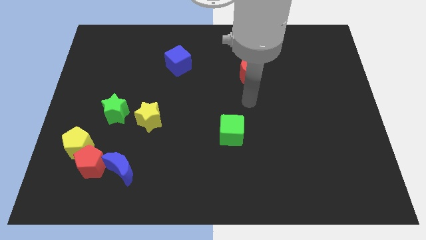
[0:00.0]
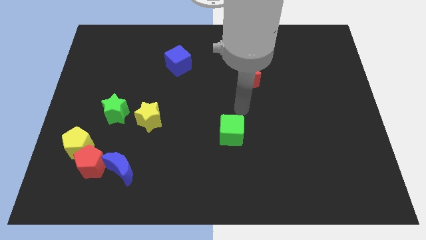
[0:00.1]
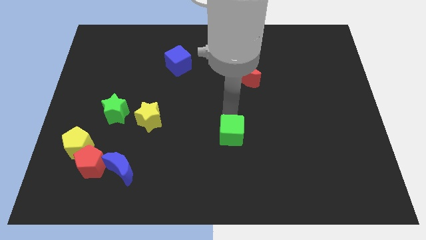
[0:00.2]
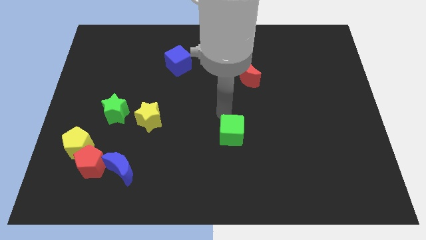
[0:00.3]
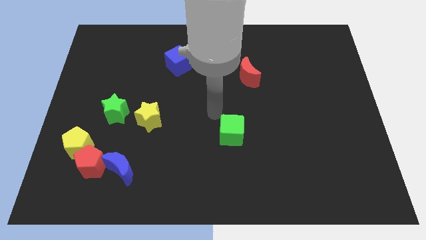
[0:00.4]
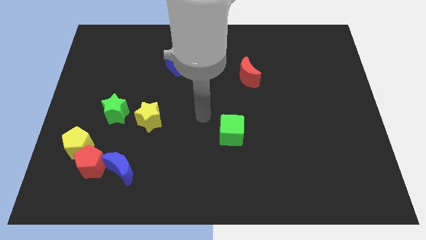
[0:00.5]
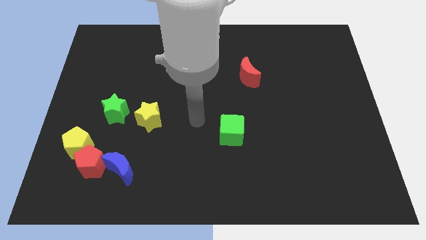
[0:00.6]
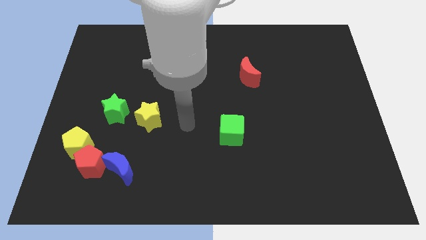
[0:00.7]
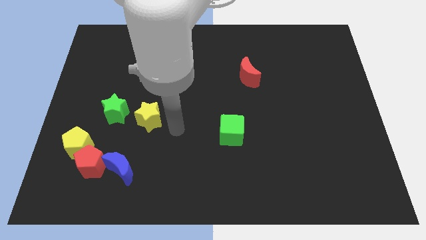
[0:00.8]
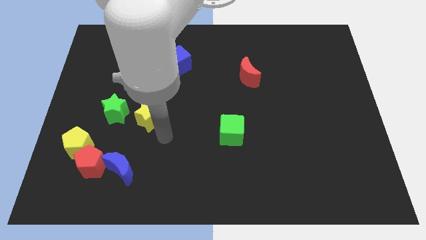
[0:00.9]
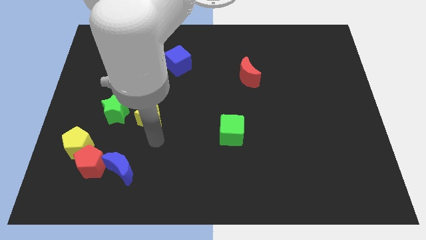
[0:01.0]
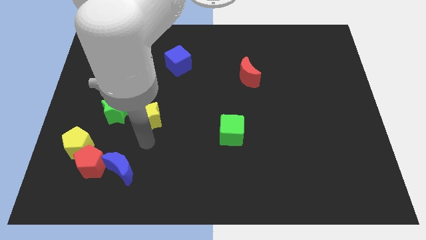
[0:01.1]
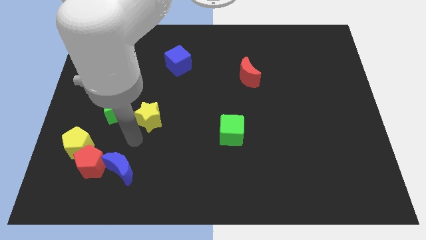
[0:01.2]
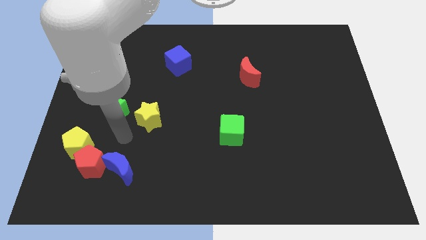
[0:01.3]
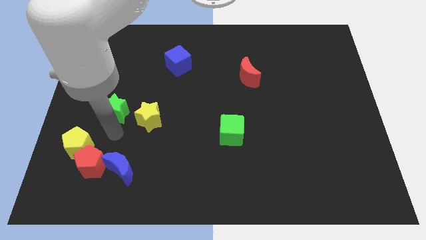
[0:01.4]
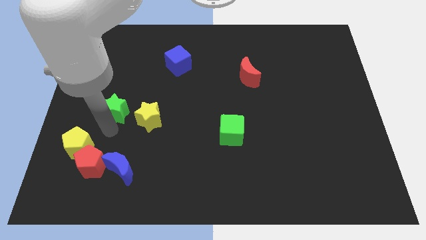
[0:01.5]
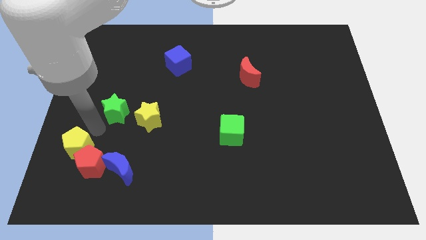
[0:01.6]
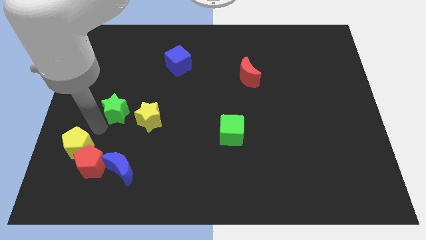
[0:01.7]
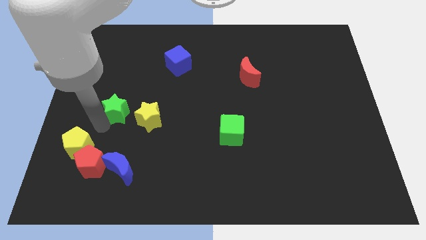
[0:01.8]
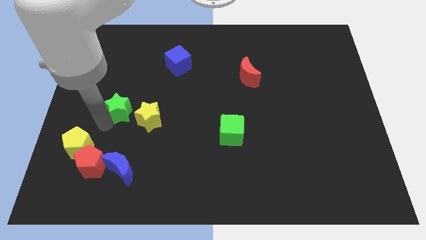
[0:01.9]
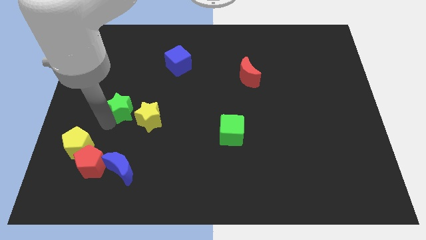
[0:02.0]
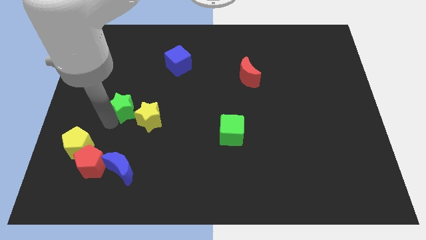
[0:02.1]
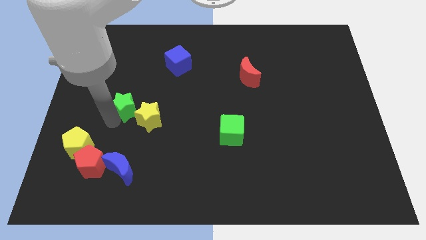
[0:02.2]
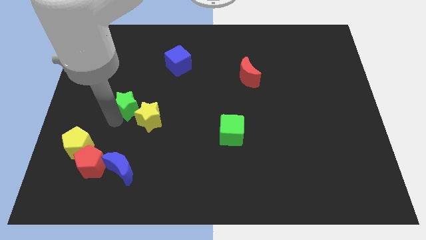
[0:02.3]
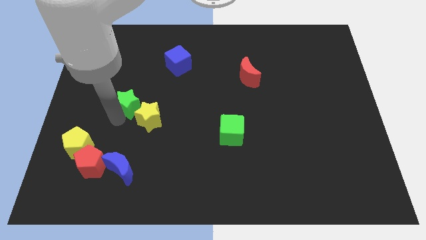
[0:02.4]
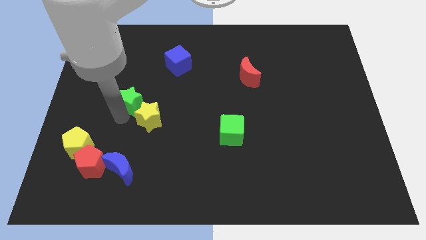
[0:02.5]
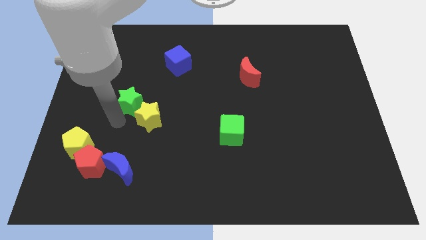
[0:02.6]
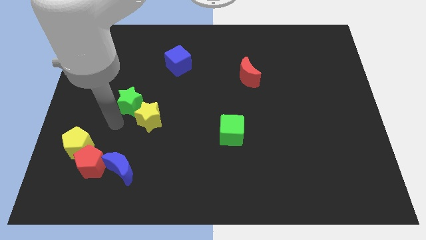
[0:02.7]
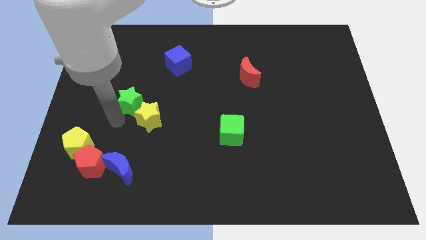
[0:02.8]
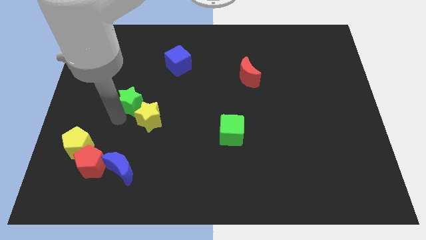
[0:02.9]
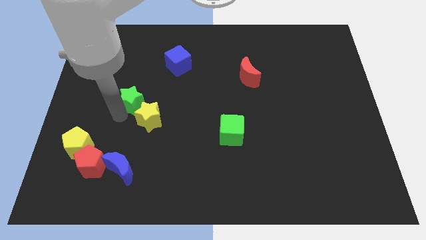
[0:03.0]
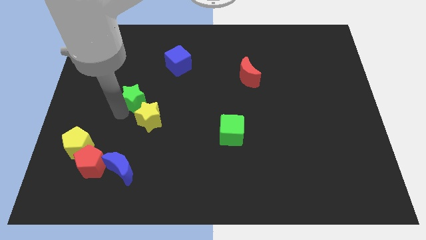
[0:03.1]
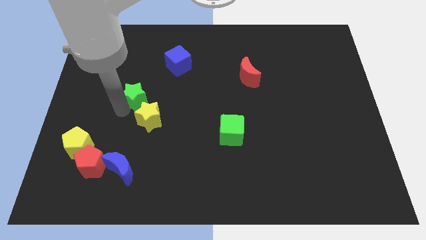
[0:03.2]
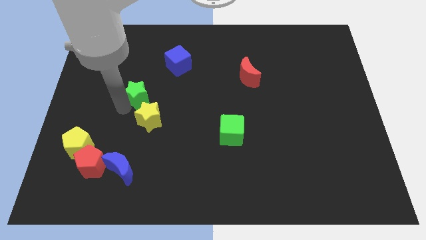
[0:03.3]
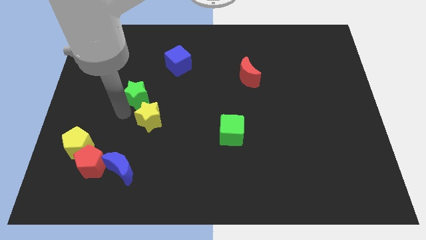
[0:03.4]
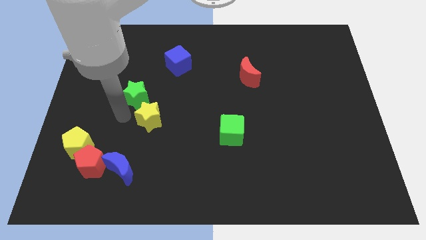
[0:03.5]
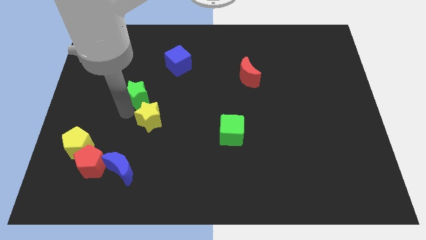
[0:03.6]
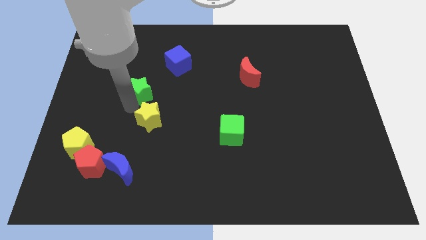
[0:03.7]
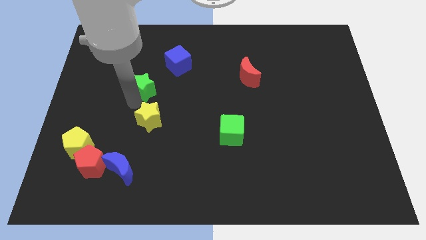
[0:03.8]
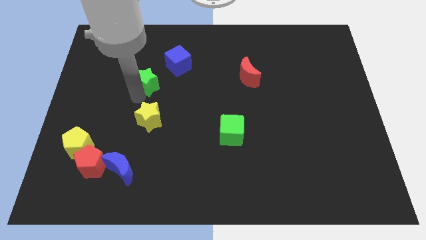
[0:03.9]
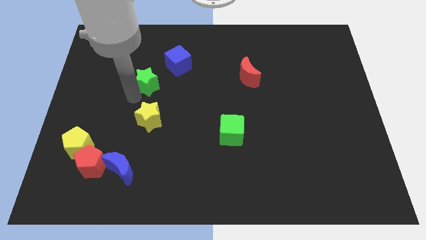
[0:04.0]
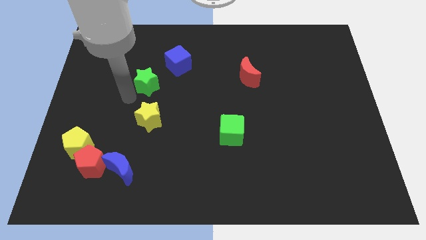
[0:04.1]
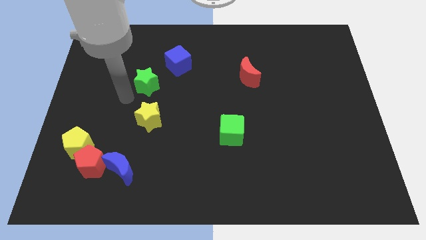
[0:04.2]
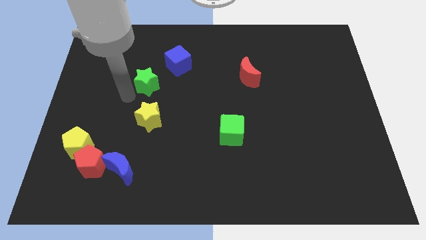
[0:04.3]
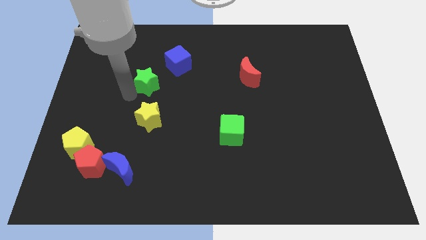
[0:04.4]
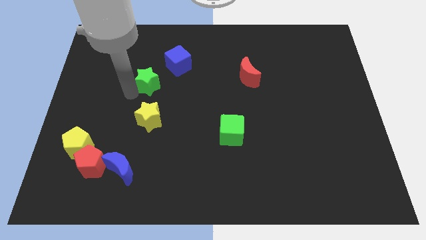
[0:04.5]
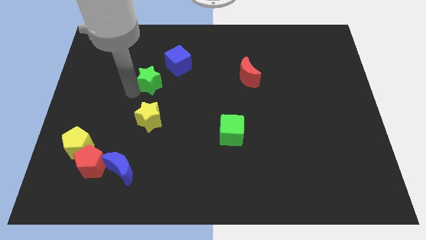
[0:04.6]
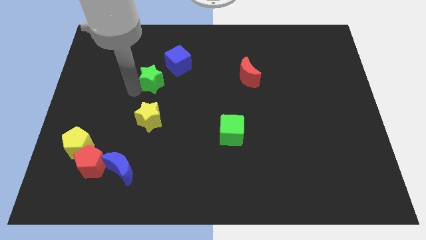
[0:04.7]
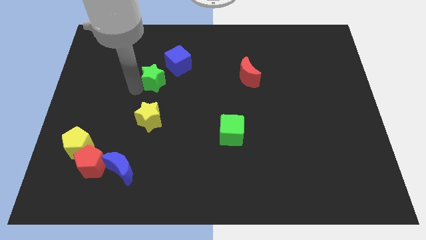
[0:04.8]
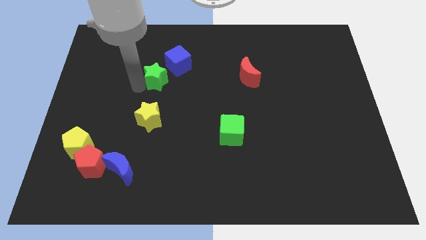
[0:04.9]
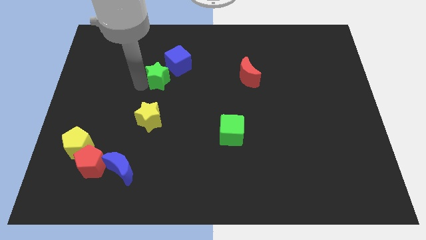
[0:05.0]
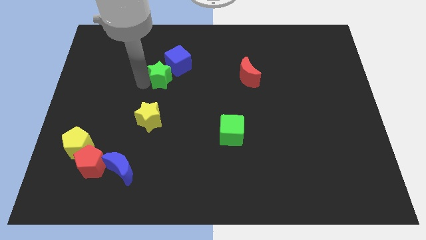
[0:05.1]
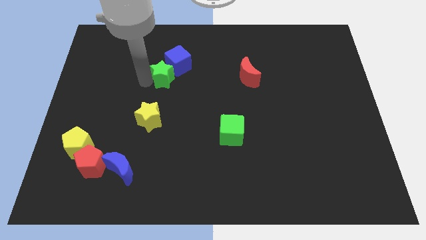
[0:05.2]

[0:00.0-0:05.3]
slide the green star to the blue cube
